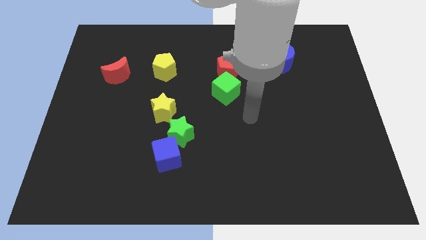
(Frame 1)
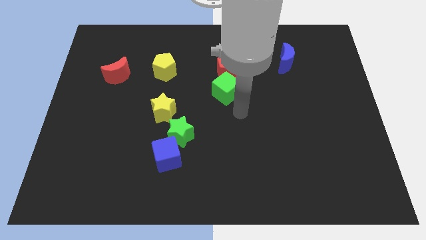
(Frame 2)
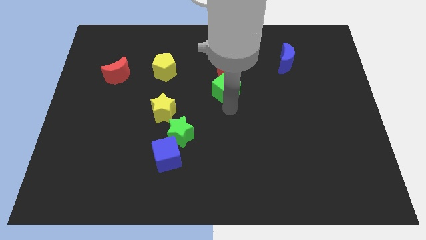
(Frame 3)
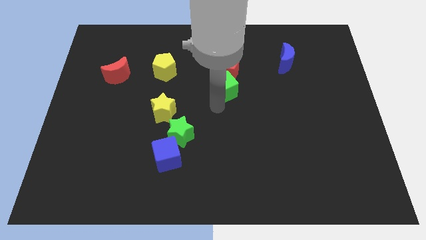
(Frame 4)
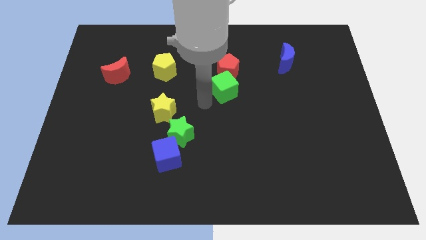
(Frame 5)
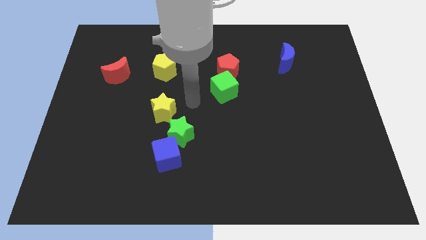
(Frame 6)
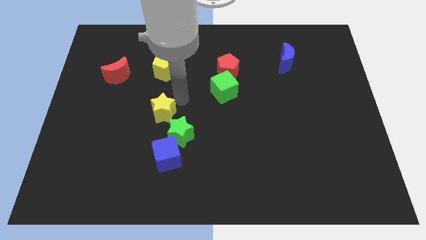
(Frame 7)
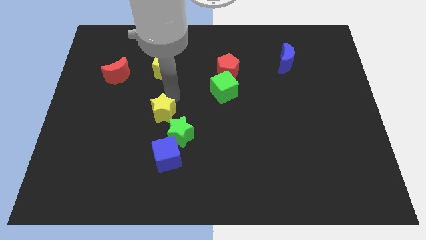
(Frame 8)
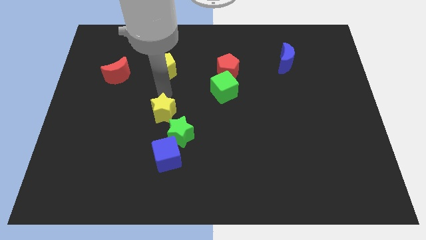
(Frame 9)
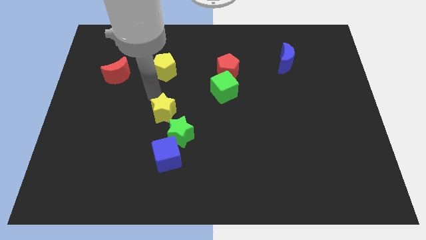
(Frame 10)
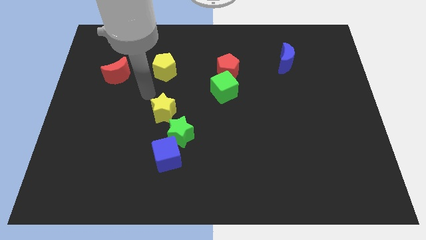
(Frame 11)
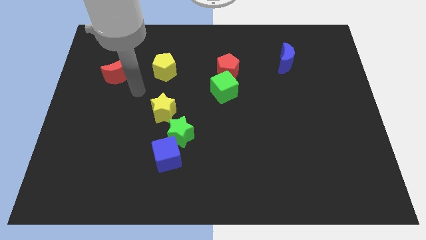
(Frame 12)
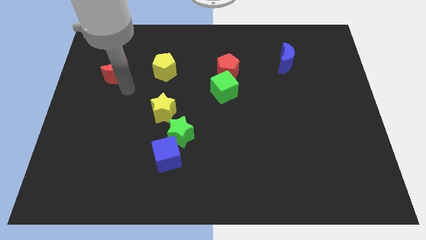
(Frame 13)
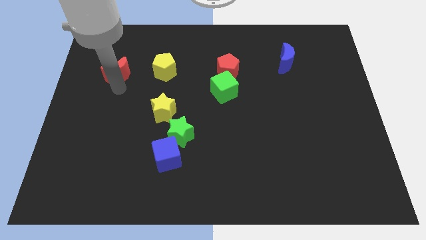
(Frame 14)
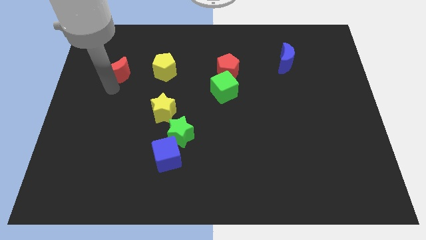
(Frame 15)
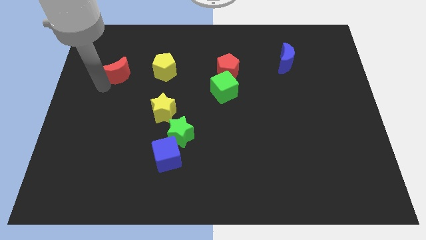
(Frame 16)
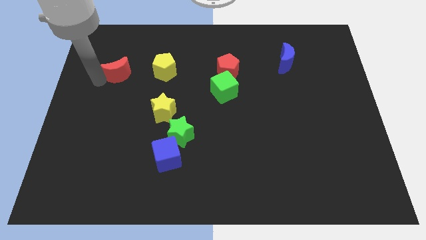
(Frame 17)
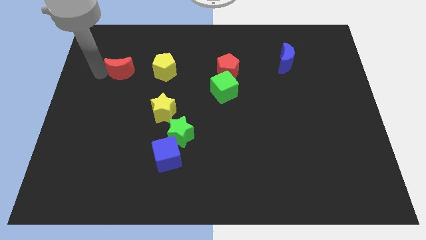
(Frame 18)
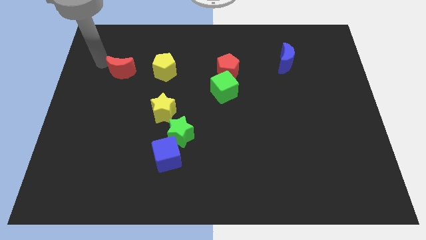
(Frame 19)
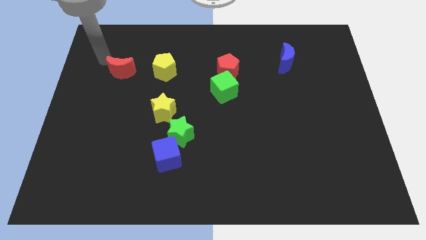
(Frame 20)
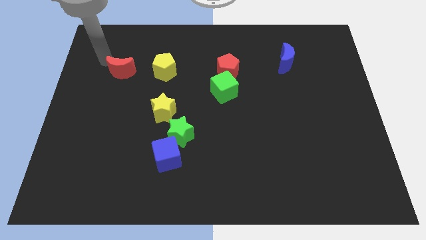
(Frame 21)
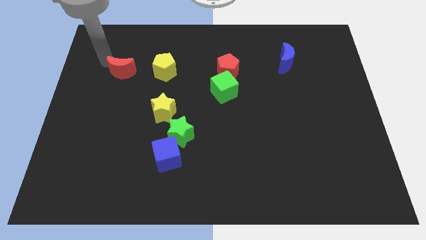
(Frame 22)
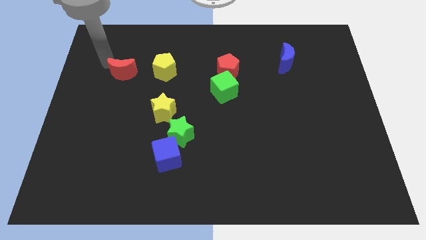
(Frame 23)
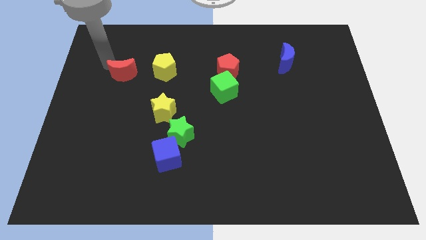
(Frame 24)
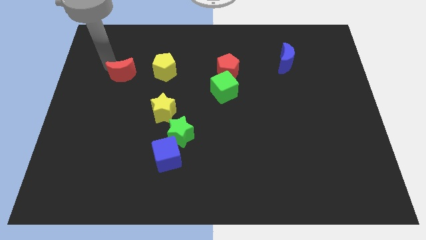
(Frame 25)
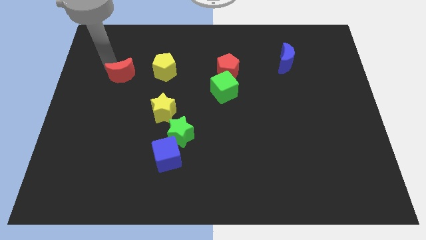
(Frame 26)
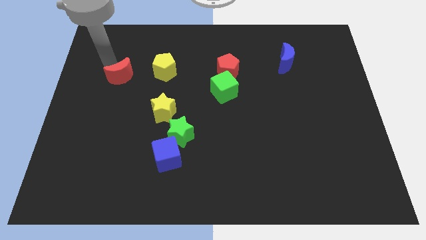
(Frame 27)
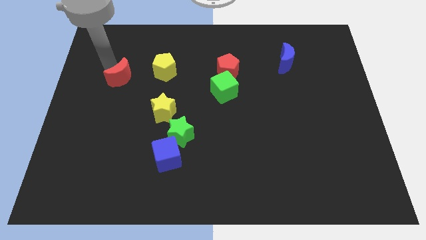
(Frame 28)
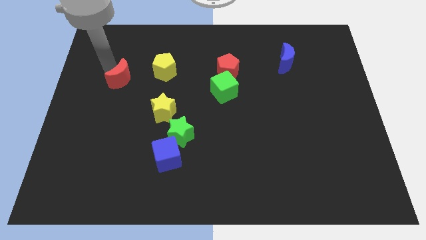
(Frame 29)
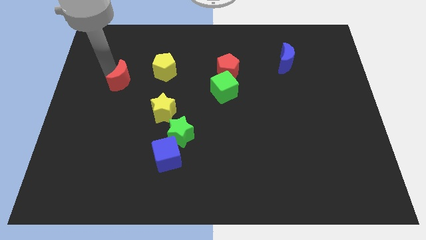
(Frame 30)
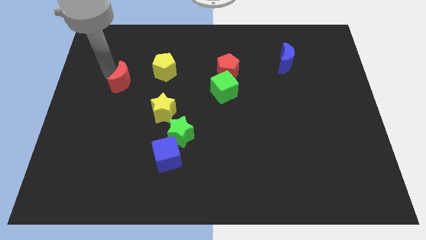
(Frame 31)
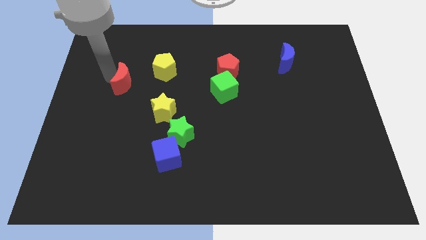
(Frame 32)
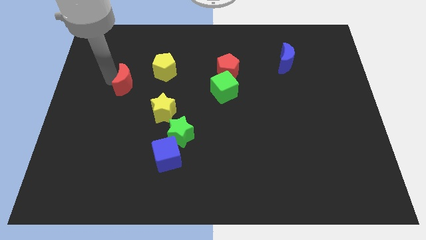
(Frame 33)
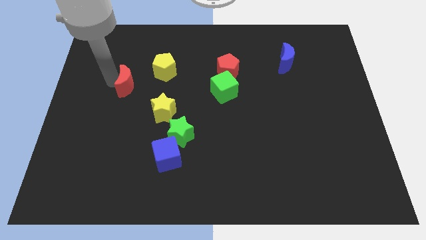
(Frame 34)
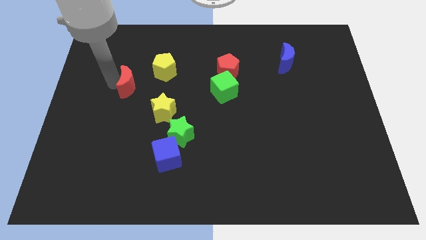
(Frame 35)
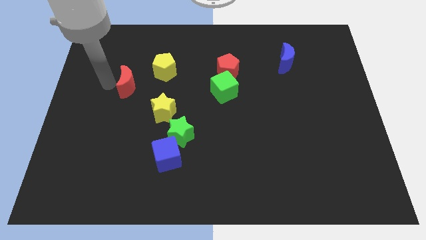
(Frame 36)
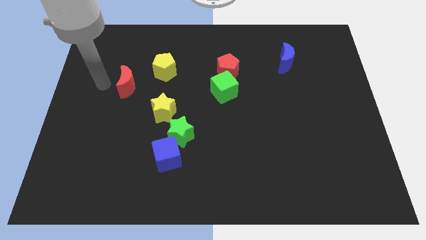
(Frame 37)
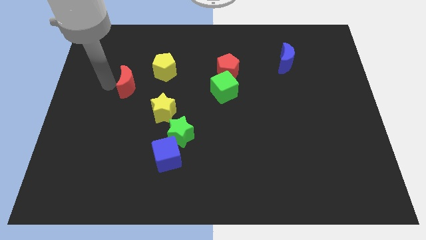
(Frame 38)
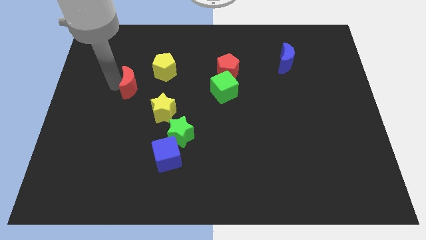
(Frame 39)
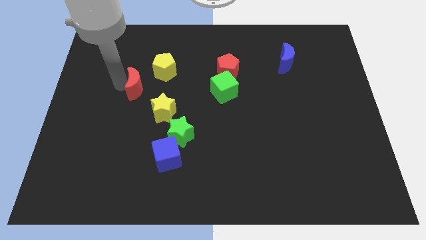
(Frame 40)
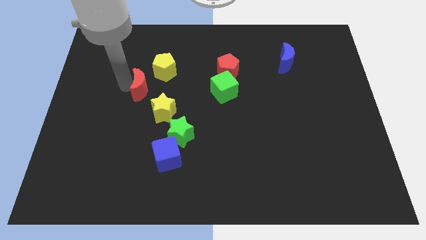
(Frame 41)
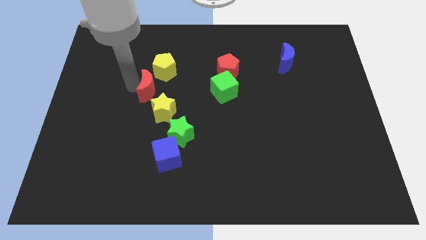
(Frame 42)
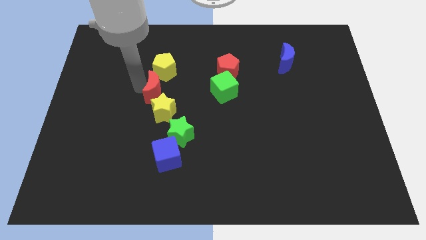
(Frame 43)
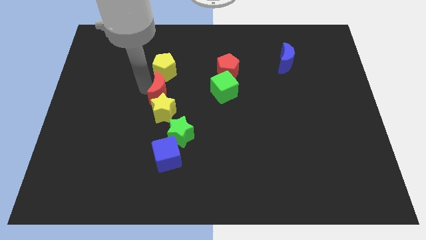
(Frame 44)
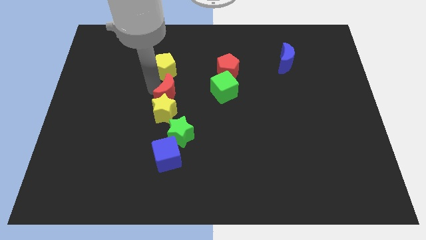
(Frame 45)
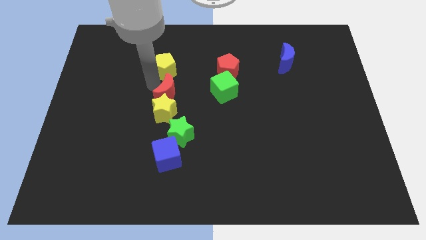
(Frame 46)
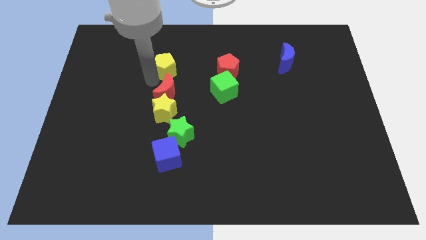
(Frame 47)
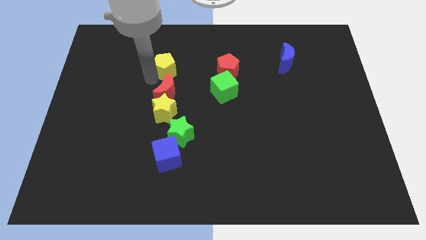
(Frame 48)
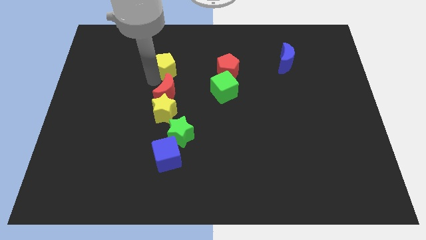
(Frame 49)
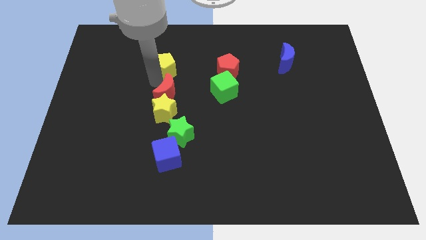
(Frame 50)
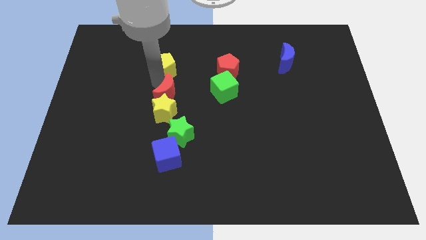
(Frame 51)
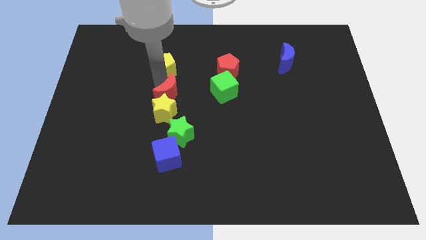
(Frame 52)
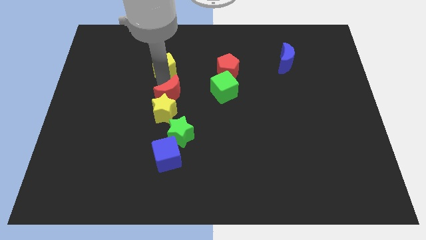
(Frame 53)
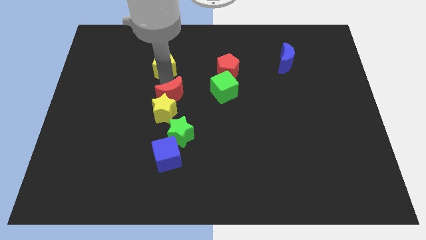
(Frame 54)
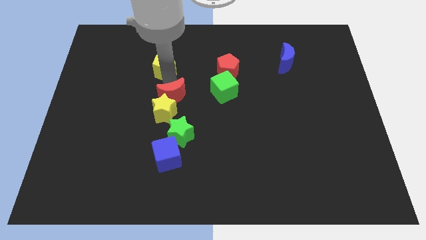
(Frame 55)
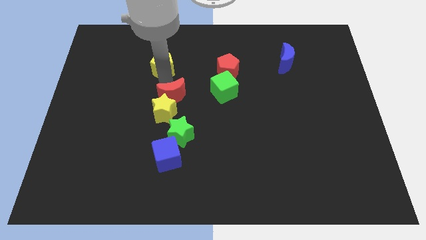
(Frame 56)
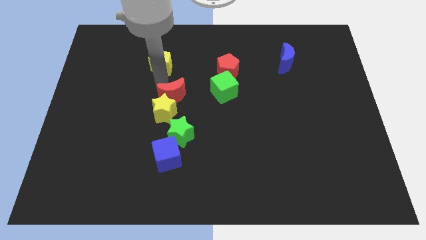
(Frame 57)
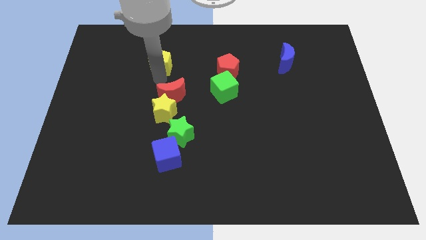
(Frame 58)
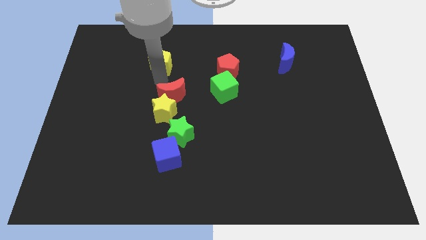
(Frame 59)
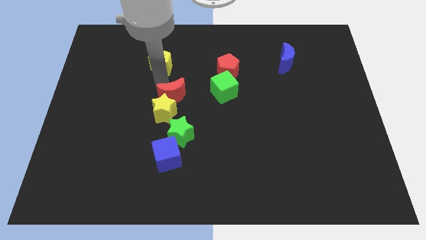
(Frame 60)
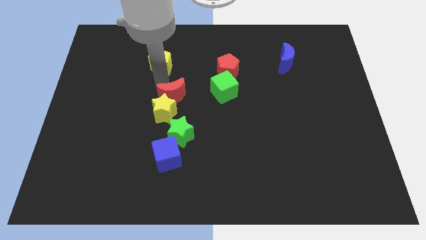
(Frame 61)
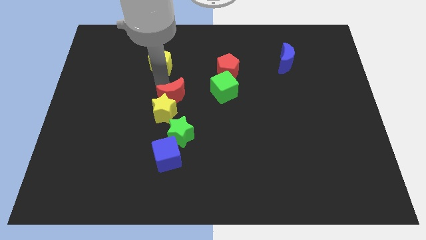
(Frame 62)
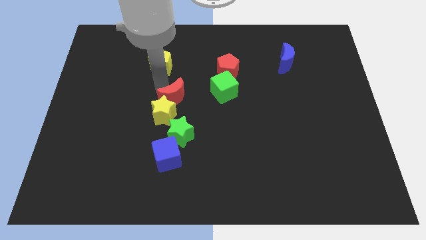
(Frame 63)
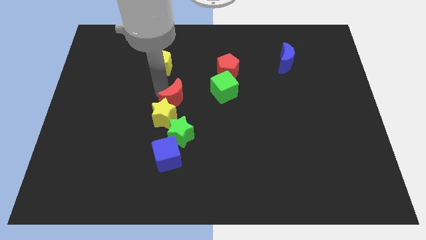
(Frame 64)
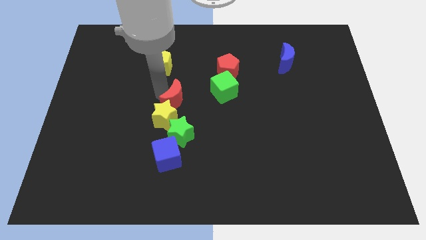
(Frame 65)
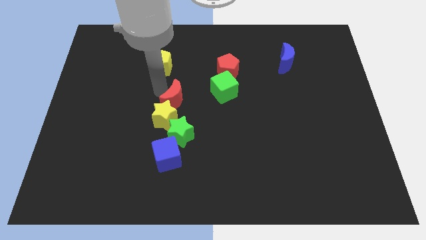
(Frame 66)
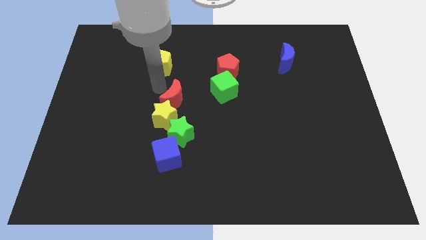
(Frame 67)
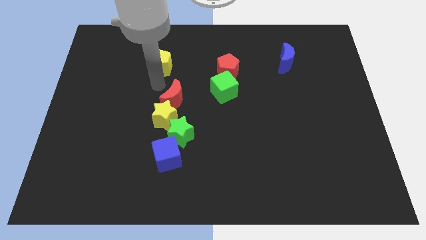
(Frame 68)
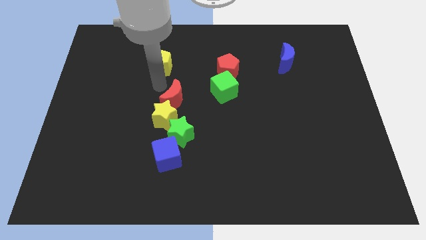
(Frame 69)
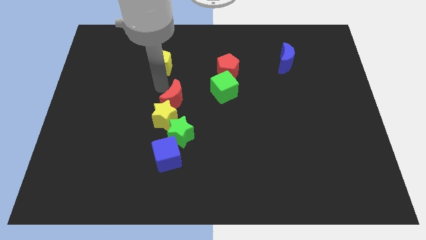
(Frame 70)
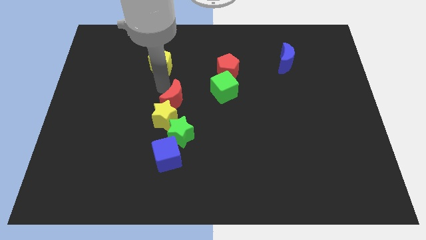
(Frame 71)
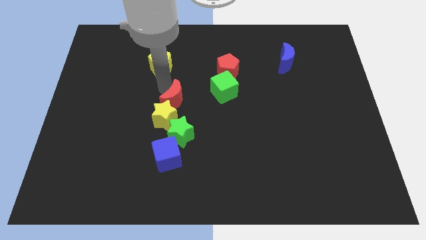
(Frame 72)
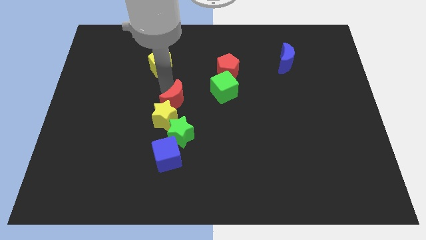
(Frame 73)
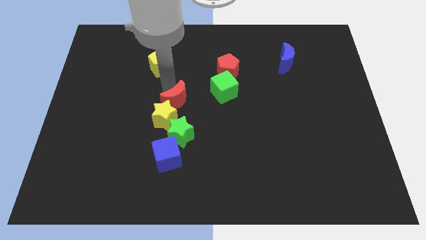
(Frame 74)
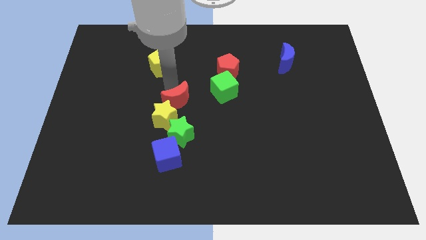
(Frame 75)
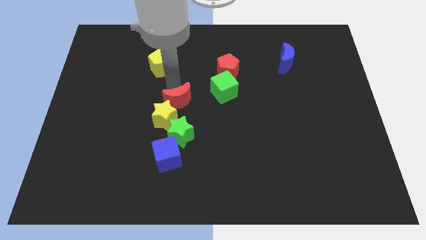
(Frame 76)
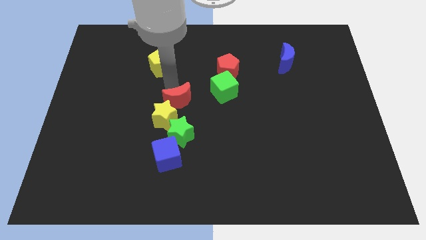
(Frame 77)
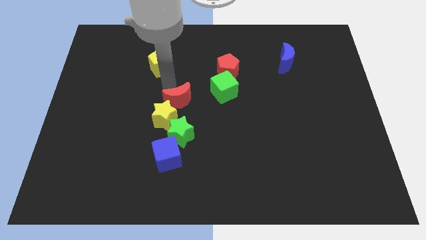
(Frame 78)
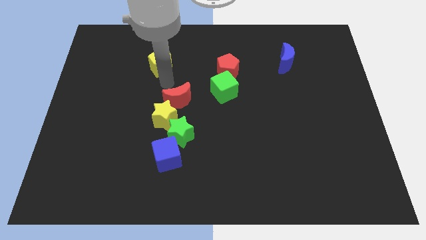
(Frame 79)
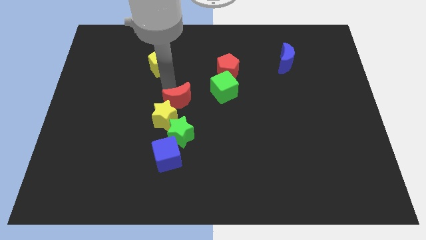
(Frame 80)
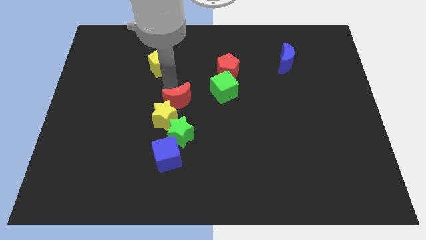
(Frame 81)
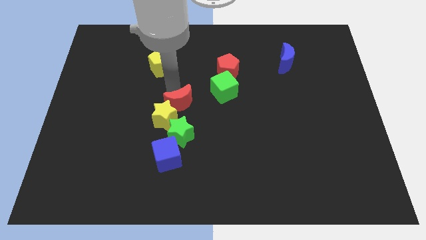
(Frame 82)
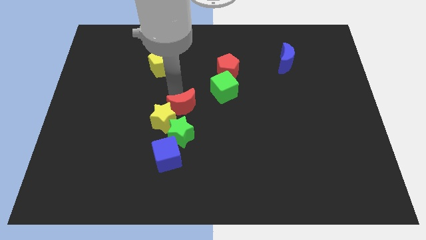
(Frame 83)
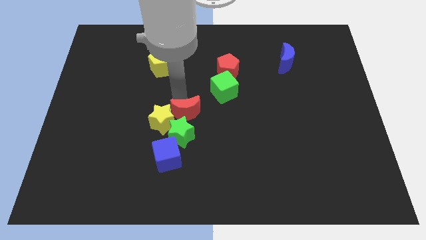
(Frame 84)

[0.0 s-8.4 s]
push the red moon down and right diagonally
